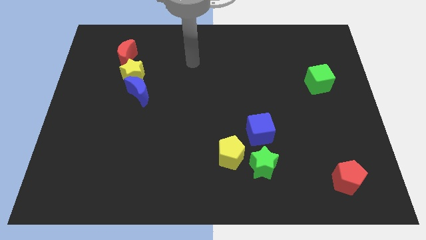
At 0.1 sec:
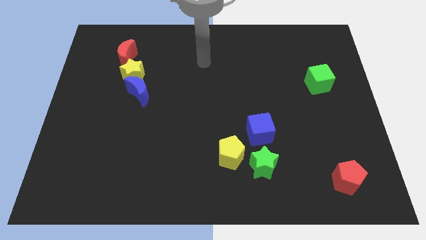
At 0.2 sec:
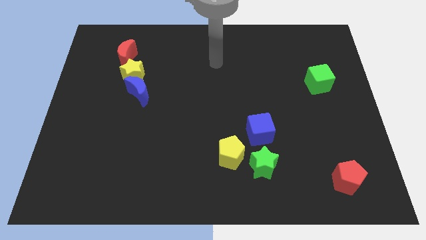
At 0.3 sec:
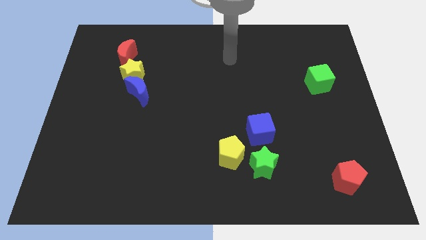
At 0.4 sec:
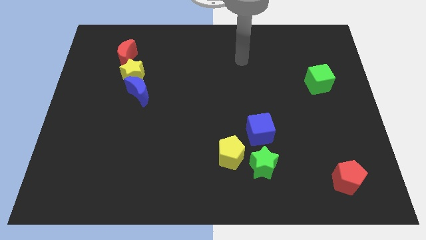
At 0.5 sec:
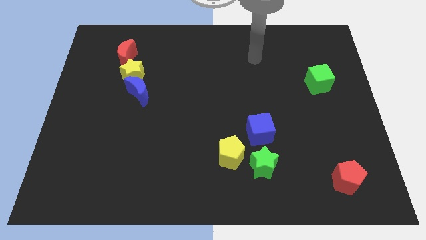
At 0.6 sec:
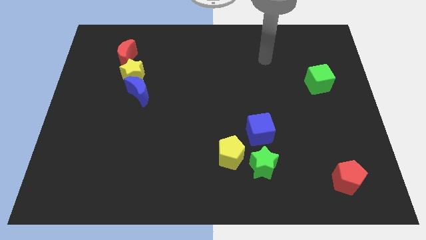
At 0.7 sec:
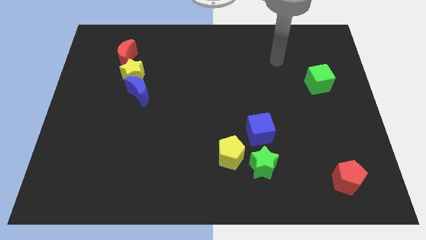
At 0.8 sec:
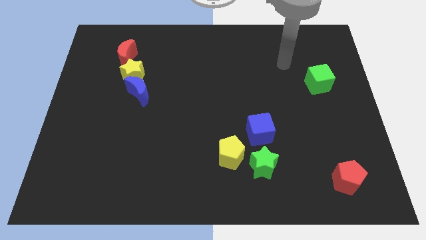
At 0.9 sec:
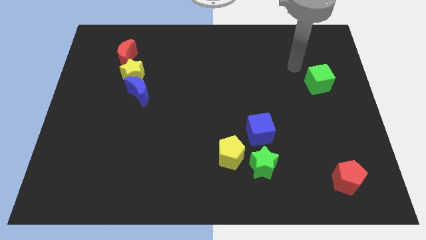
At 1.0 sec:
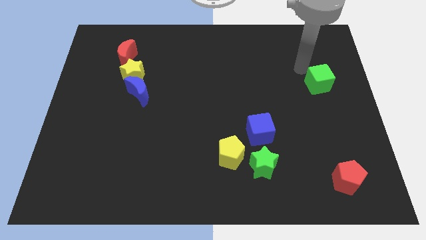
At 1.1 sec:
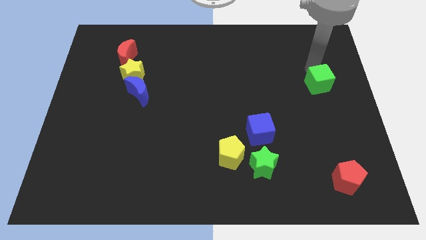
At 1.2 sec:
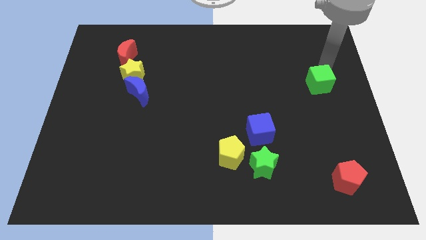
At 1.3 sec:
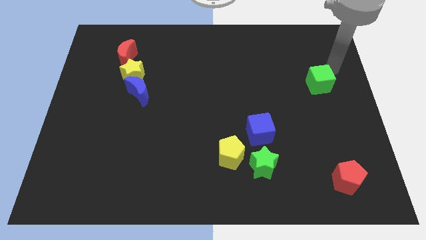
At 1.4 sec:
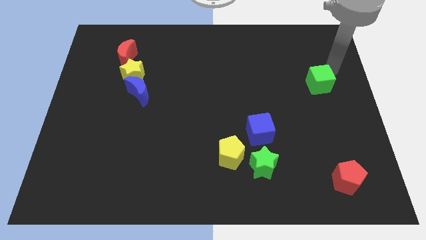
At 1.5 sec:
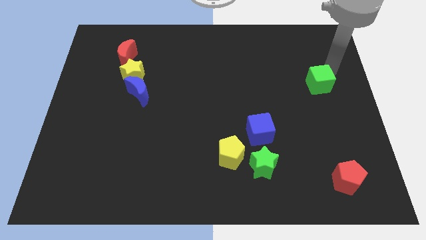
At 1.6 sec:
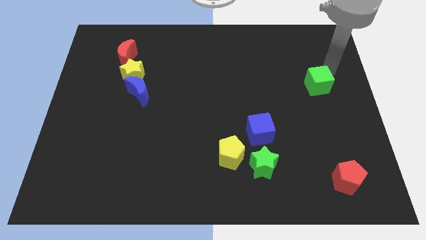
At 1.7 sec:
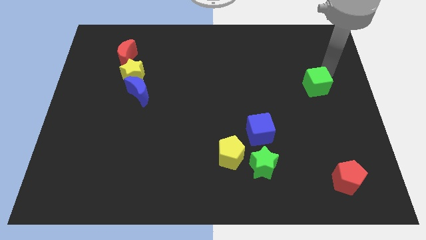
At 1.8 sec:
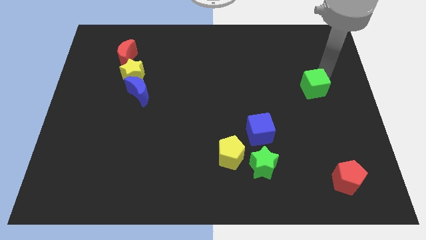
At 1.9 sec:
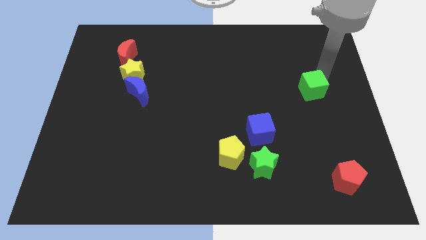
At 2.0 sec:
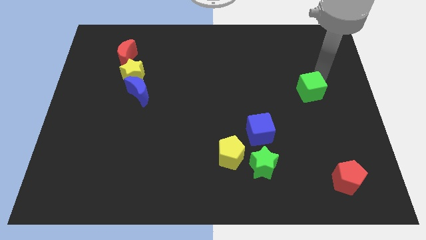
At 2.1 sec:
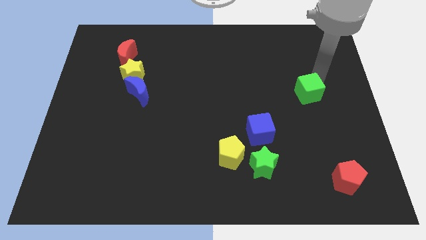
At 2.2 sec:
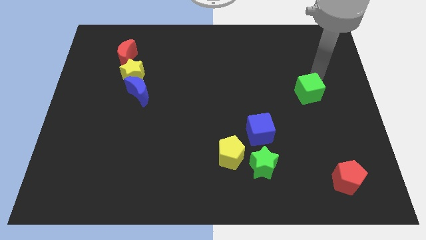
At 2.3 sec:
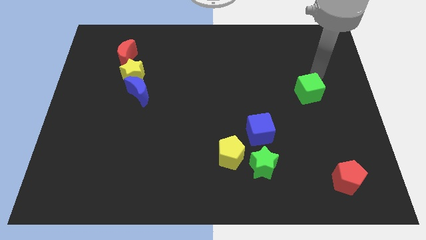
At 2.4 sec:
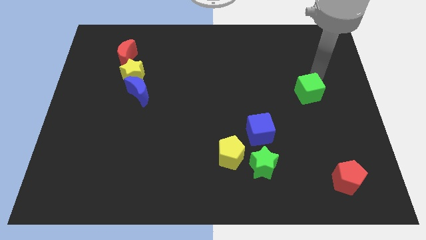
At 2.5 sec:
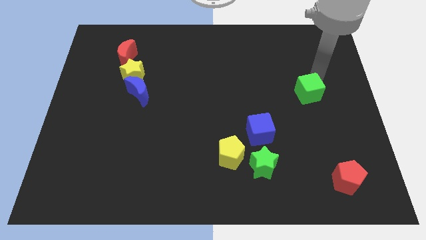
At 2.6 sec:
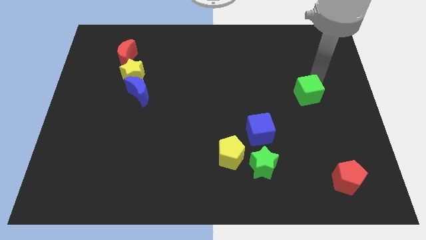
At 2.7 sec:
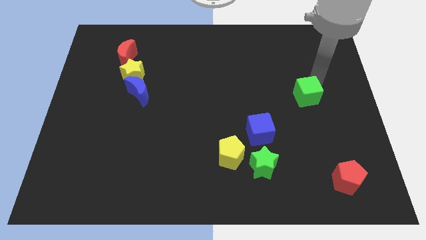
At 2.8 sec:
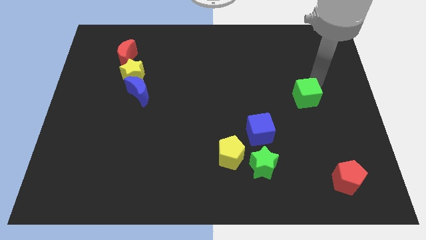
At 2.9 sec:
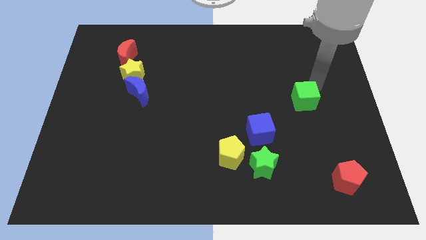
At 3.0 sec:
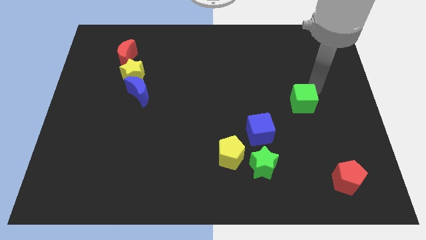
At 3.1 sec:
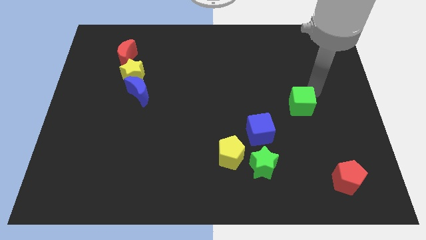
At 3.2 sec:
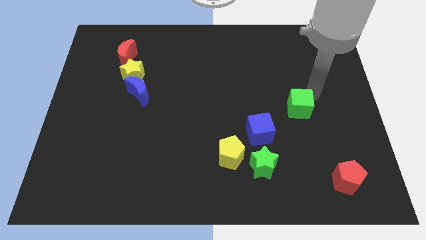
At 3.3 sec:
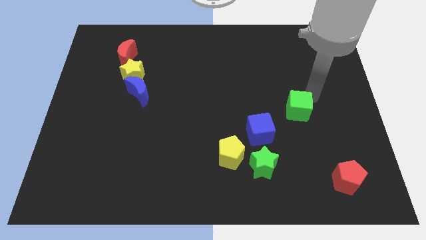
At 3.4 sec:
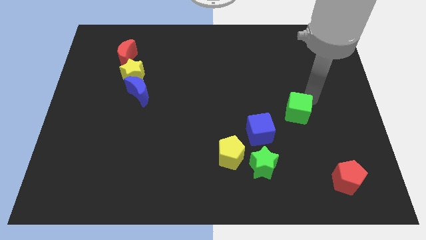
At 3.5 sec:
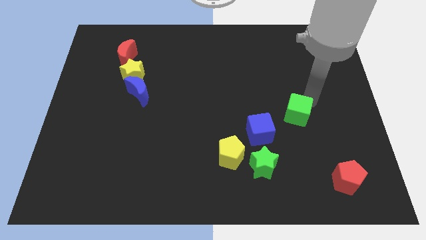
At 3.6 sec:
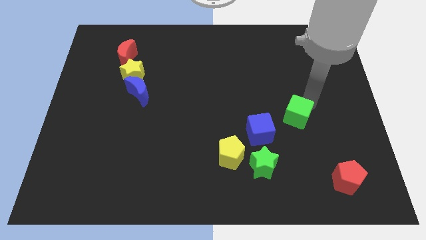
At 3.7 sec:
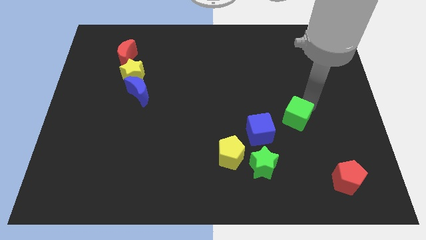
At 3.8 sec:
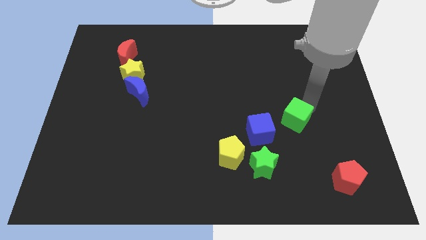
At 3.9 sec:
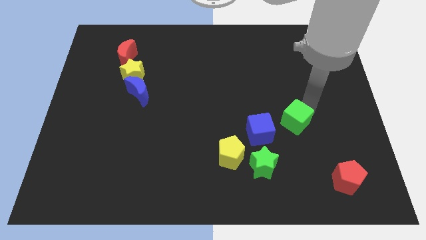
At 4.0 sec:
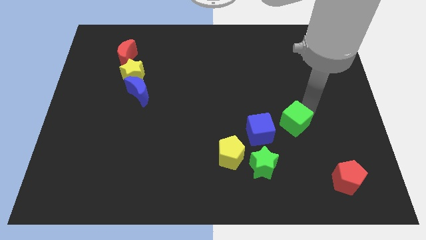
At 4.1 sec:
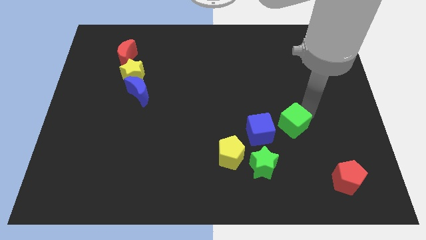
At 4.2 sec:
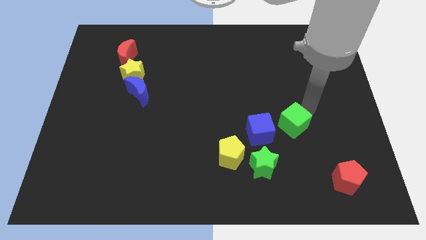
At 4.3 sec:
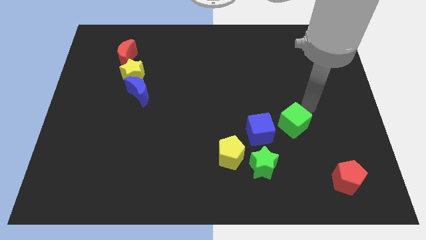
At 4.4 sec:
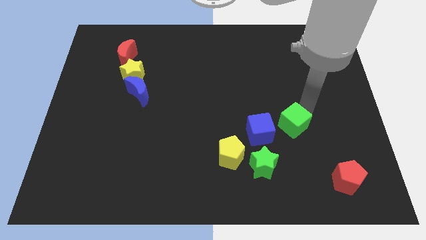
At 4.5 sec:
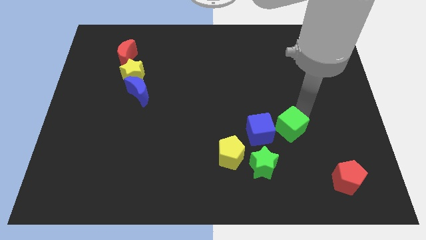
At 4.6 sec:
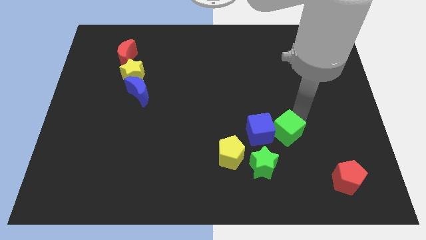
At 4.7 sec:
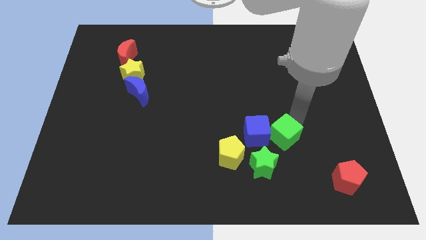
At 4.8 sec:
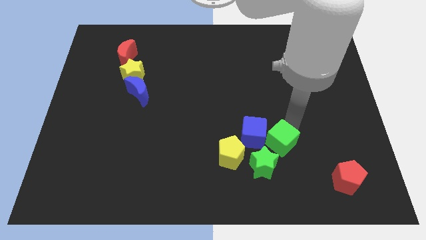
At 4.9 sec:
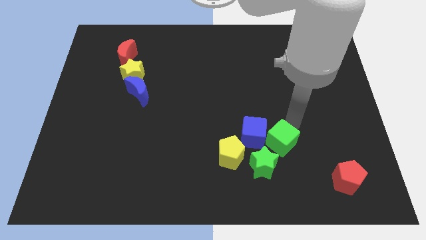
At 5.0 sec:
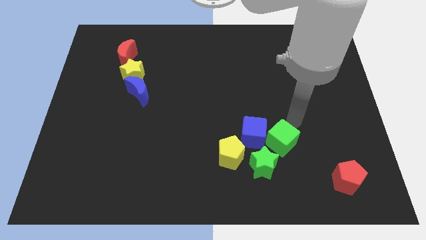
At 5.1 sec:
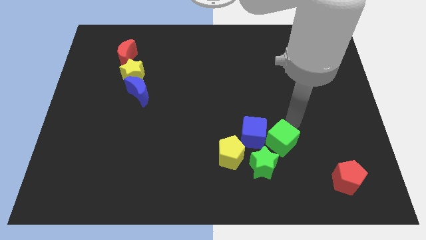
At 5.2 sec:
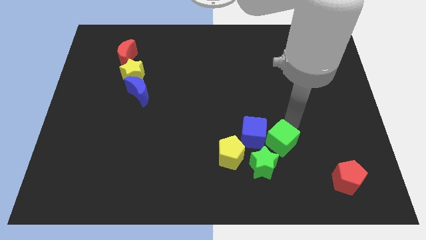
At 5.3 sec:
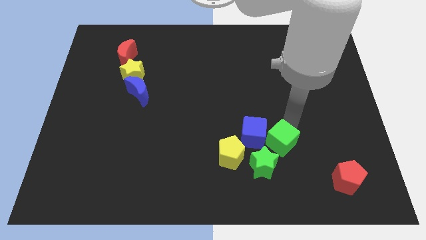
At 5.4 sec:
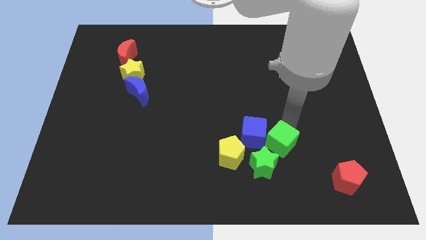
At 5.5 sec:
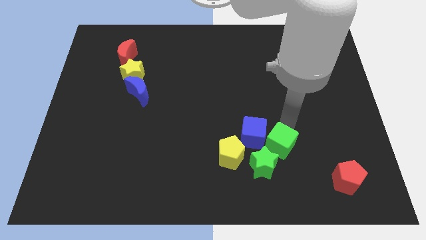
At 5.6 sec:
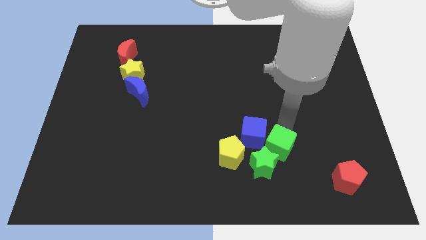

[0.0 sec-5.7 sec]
move the green cube close to the green star

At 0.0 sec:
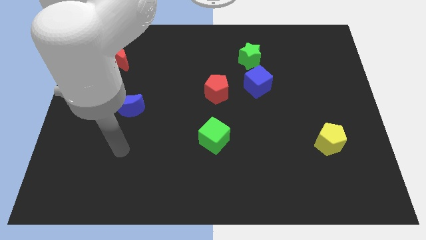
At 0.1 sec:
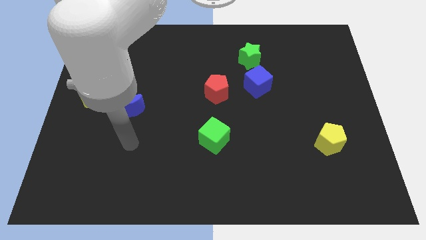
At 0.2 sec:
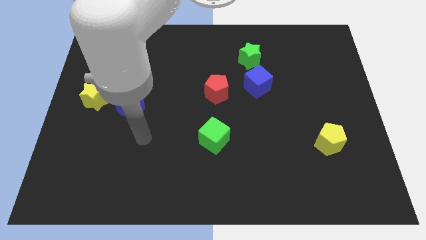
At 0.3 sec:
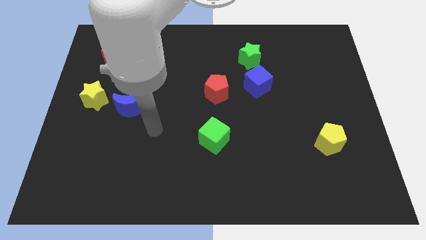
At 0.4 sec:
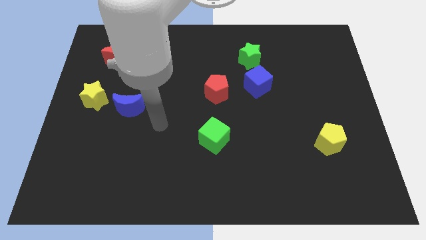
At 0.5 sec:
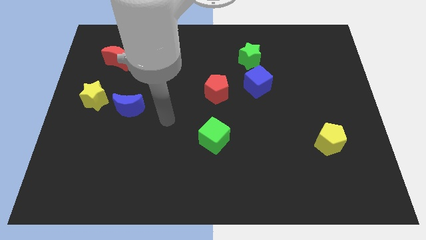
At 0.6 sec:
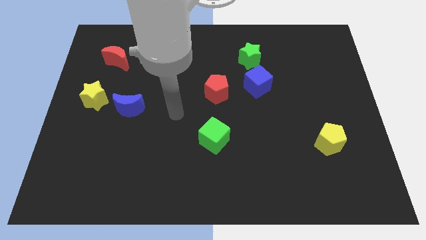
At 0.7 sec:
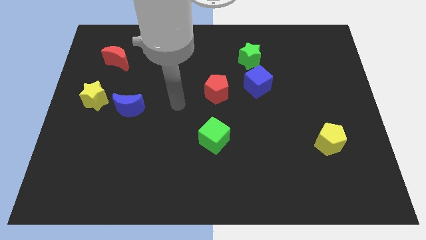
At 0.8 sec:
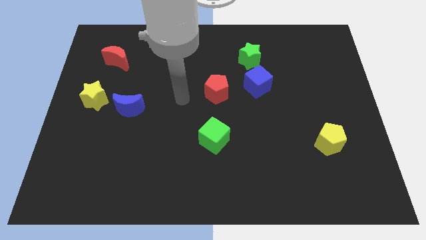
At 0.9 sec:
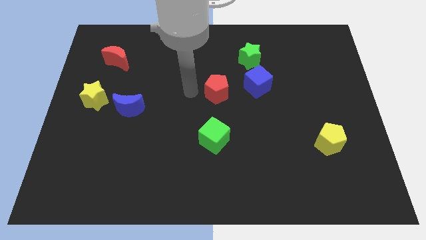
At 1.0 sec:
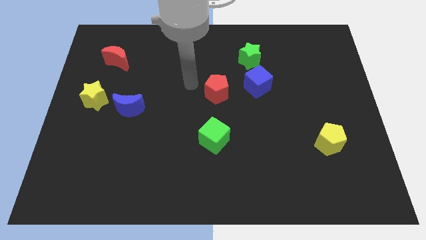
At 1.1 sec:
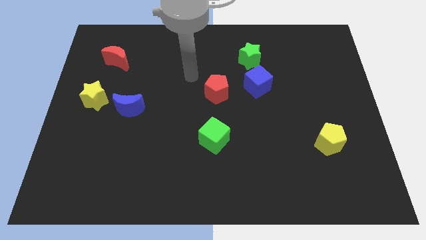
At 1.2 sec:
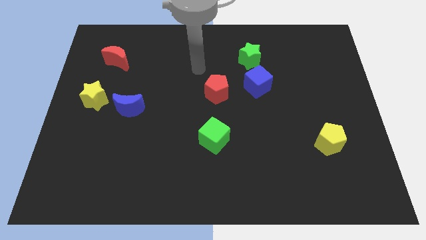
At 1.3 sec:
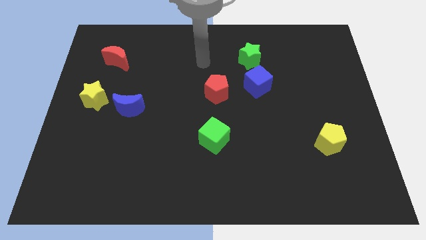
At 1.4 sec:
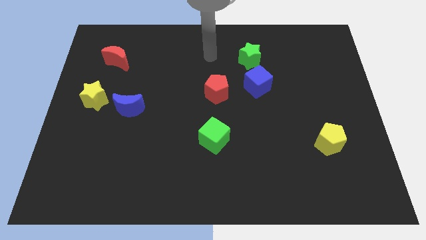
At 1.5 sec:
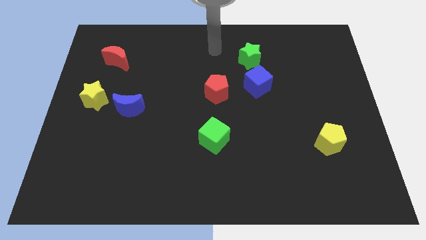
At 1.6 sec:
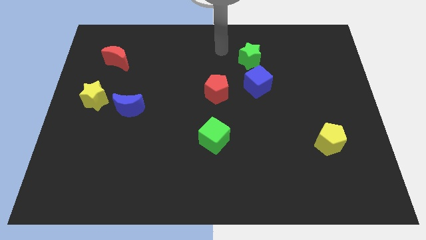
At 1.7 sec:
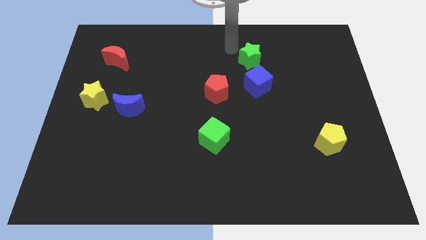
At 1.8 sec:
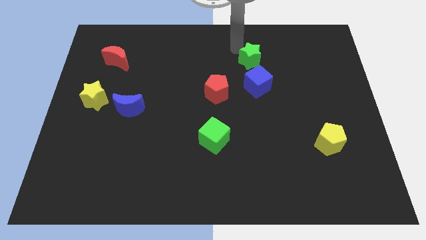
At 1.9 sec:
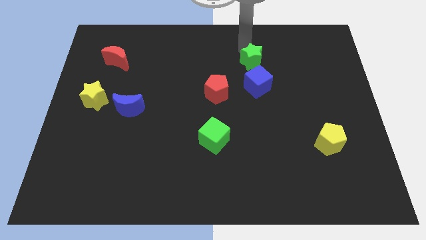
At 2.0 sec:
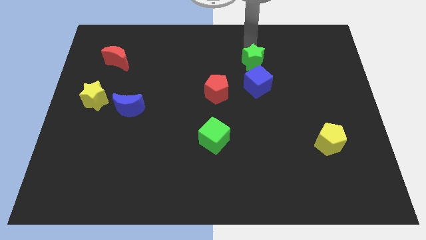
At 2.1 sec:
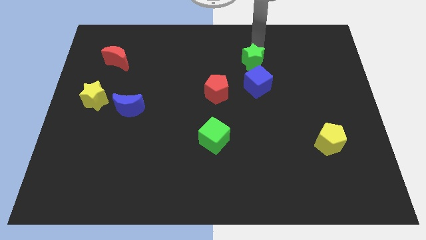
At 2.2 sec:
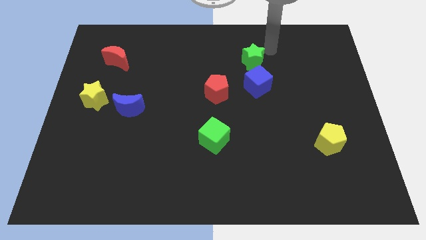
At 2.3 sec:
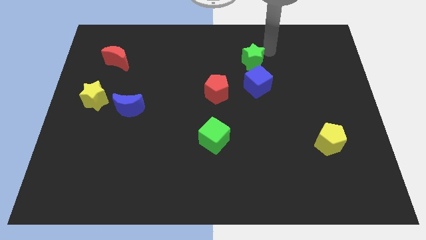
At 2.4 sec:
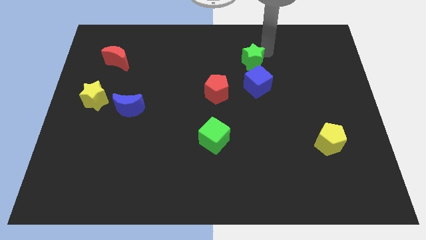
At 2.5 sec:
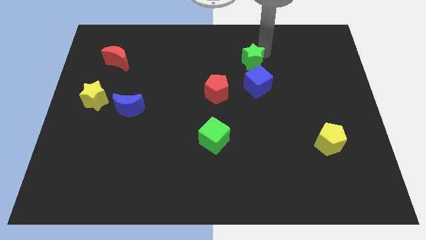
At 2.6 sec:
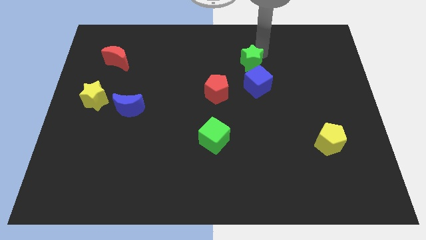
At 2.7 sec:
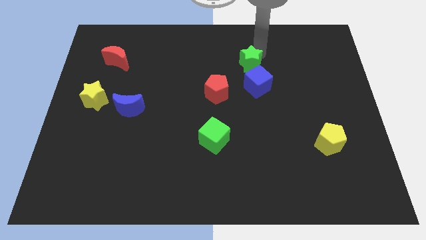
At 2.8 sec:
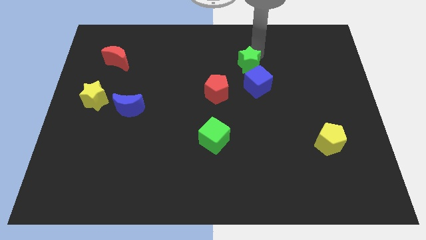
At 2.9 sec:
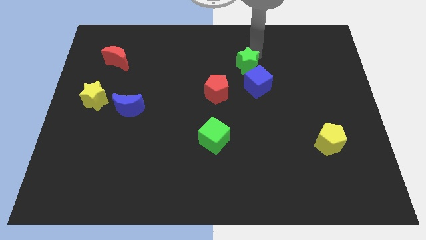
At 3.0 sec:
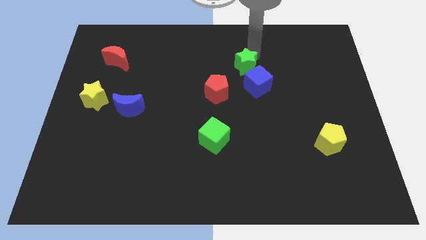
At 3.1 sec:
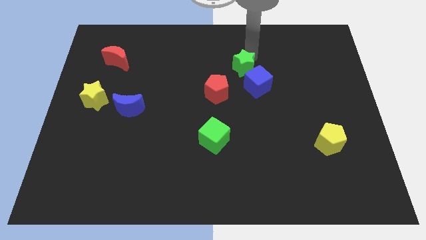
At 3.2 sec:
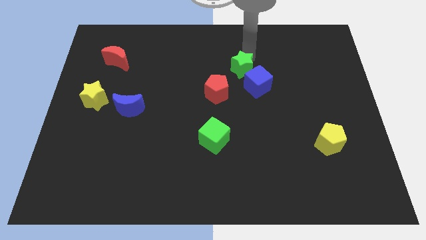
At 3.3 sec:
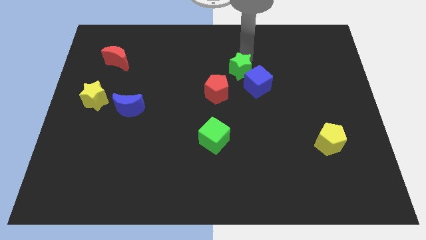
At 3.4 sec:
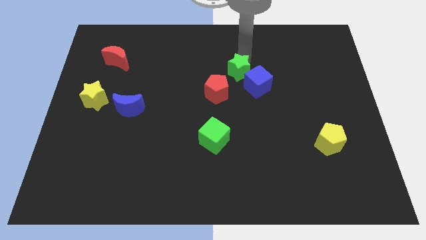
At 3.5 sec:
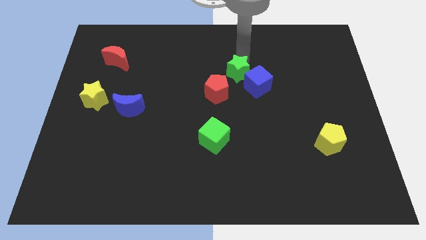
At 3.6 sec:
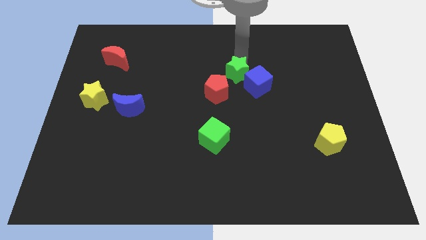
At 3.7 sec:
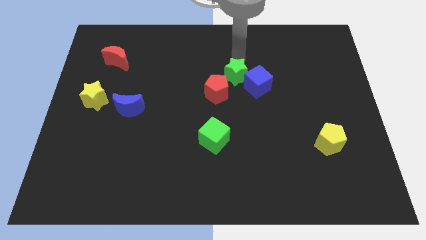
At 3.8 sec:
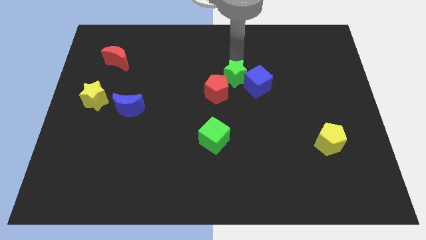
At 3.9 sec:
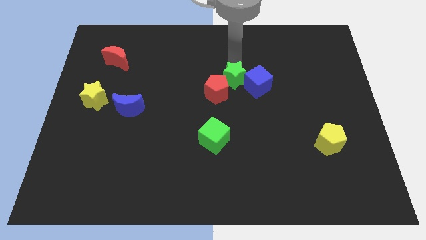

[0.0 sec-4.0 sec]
move the green star next to the red pentagon
